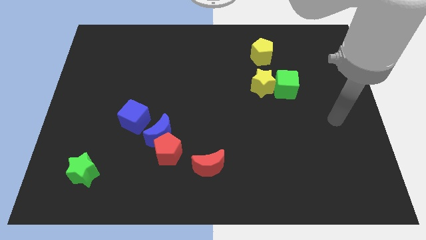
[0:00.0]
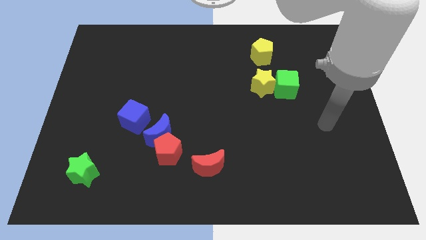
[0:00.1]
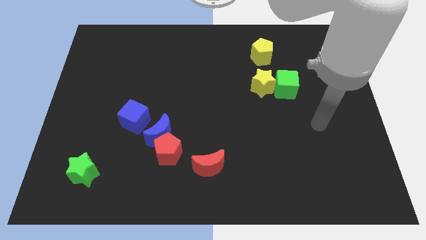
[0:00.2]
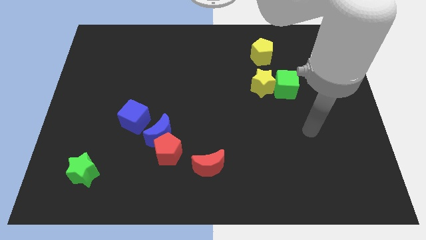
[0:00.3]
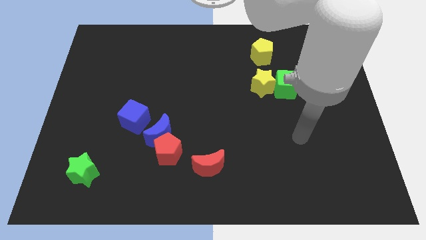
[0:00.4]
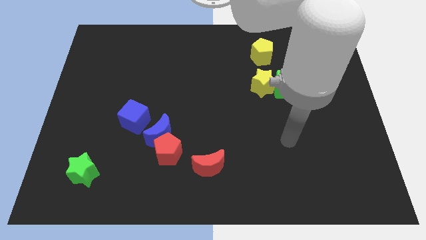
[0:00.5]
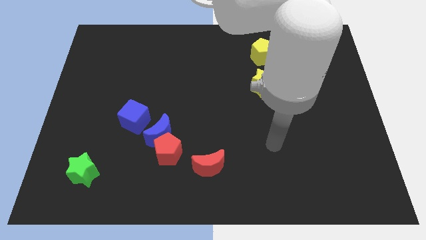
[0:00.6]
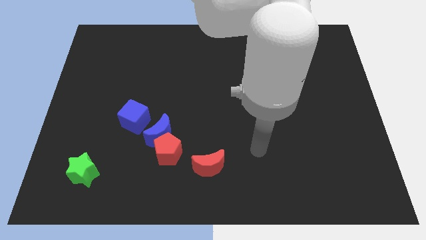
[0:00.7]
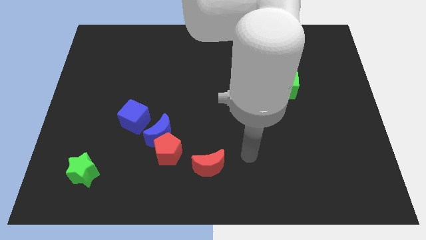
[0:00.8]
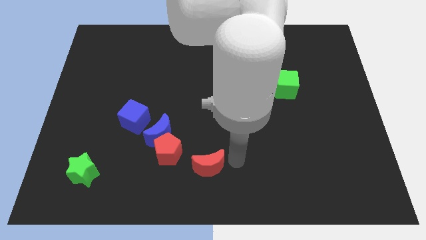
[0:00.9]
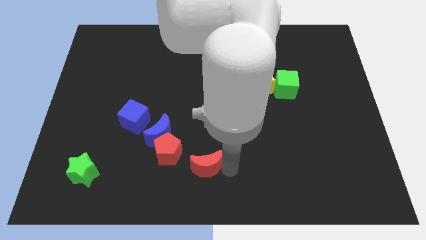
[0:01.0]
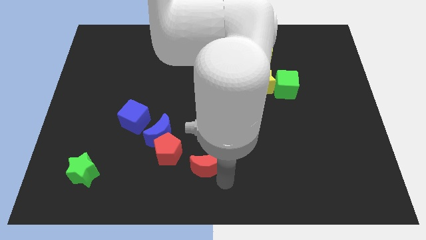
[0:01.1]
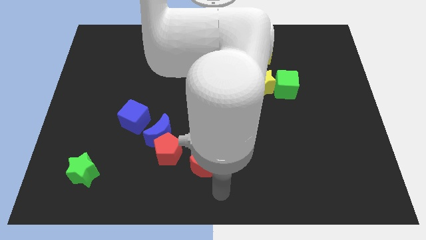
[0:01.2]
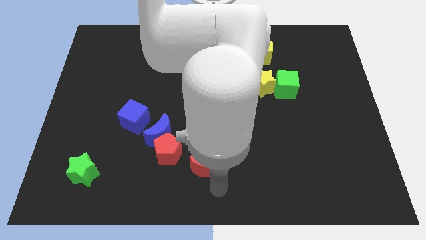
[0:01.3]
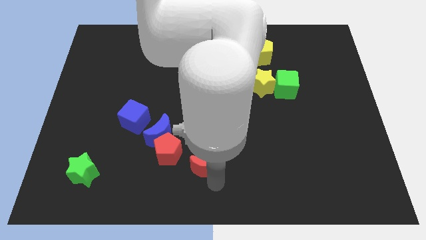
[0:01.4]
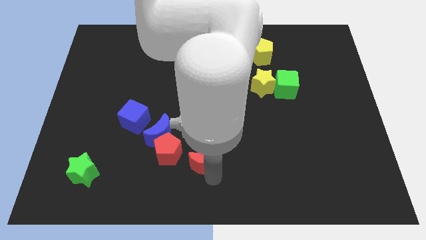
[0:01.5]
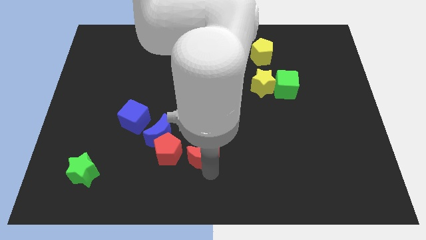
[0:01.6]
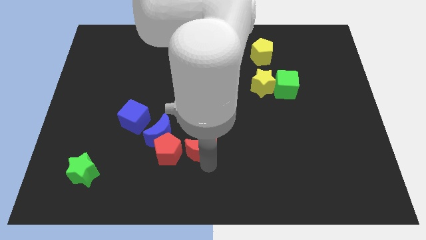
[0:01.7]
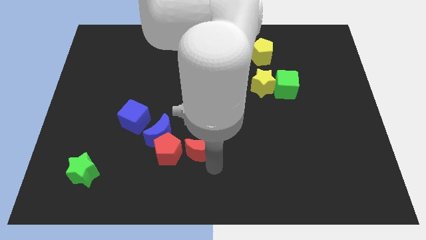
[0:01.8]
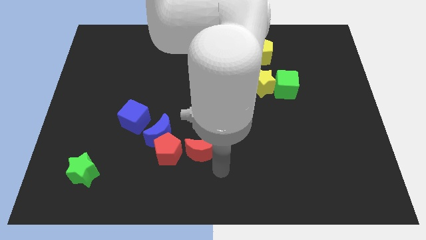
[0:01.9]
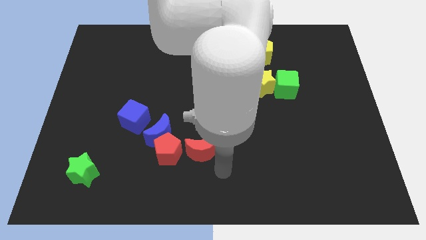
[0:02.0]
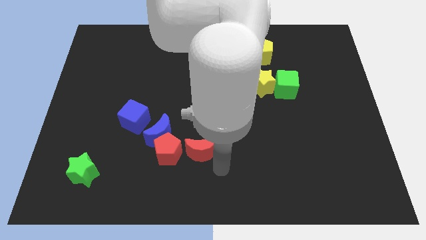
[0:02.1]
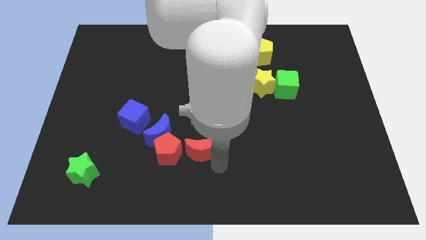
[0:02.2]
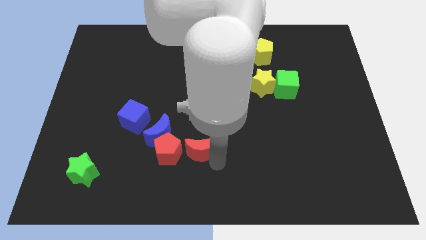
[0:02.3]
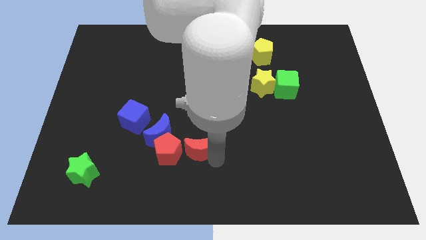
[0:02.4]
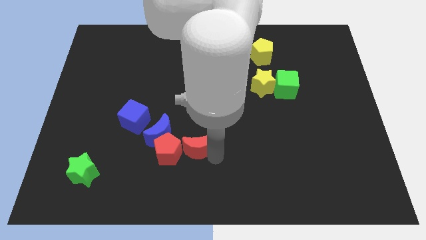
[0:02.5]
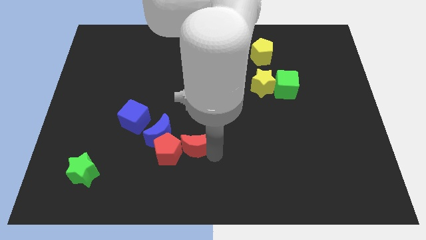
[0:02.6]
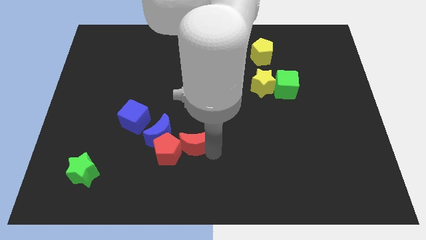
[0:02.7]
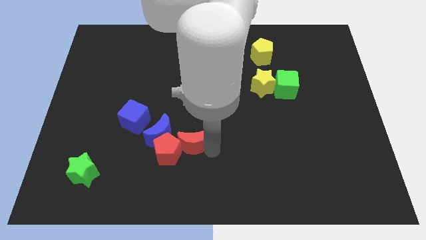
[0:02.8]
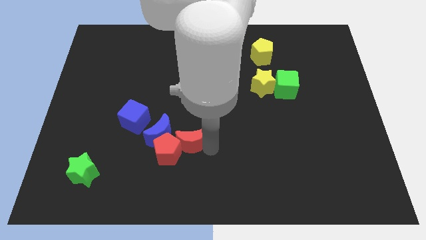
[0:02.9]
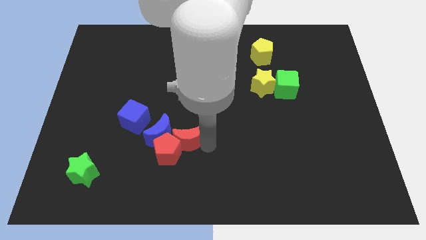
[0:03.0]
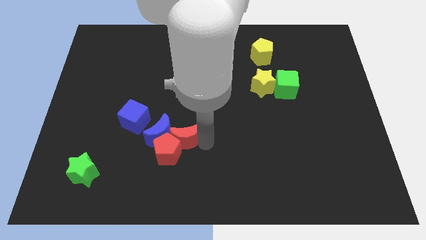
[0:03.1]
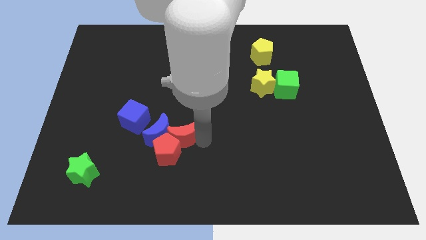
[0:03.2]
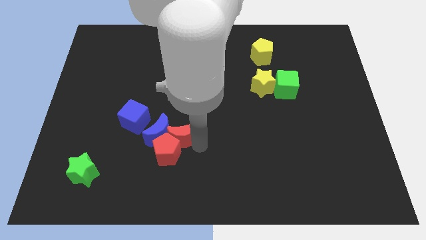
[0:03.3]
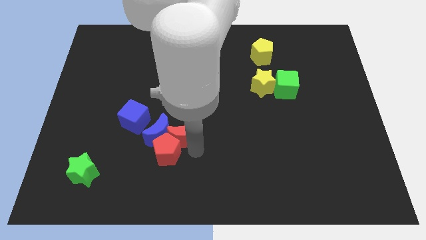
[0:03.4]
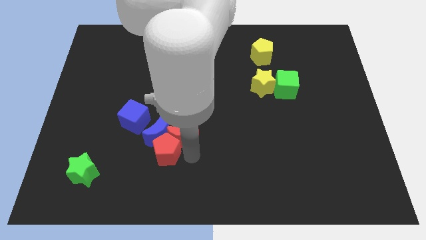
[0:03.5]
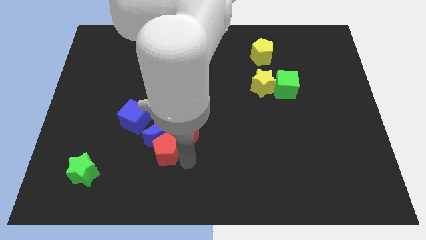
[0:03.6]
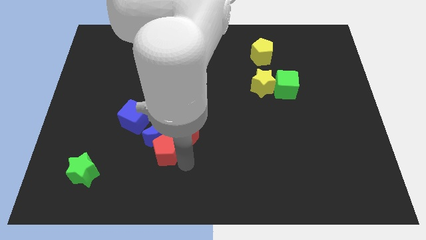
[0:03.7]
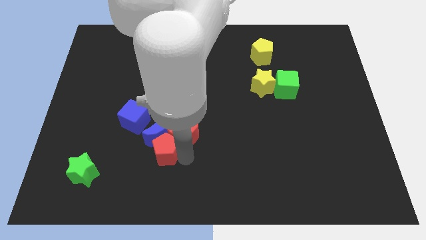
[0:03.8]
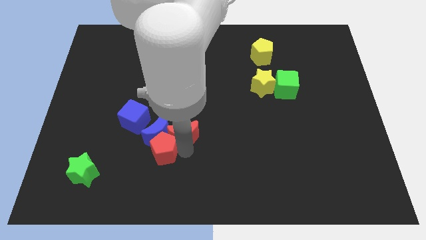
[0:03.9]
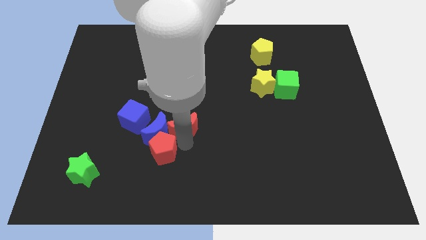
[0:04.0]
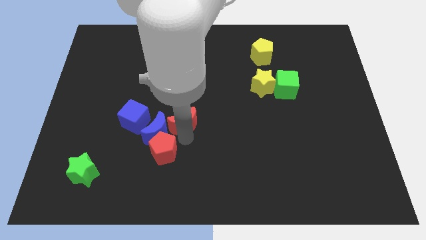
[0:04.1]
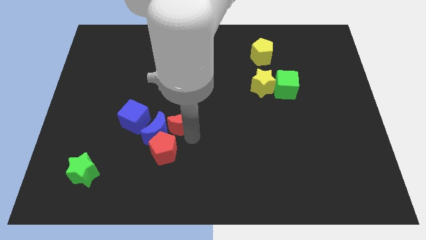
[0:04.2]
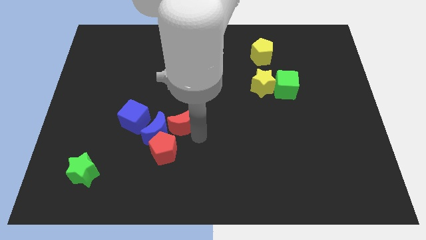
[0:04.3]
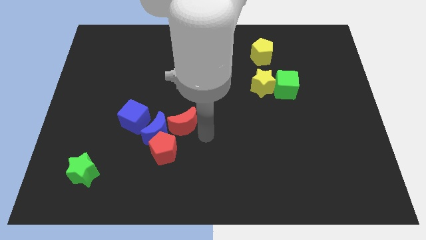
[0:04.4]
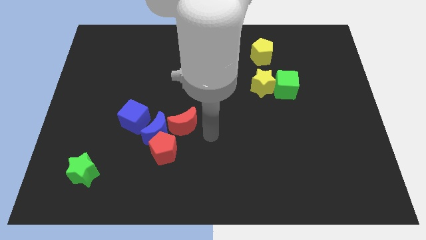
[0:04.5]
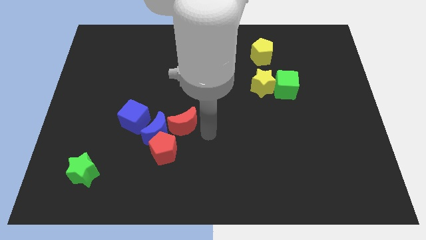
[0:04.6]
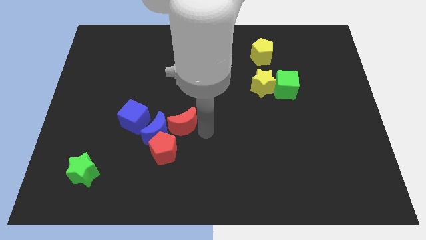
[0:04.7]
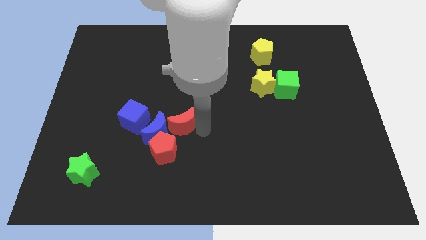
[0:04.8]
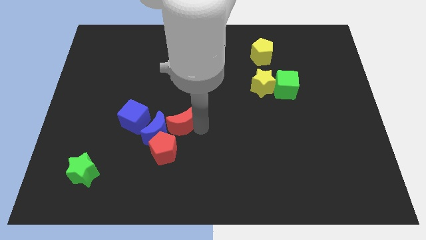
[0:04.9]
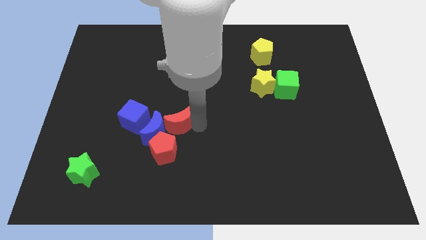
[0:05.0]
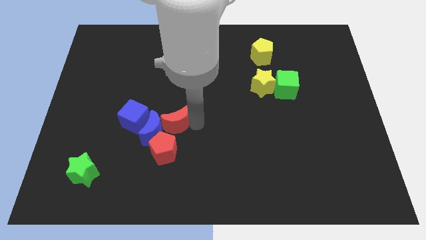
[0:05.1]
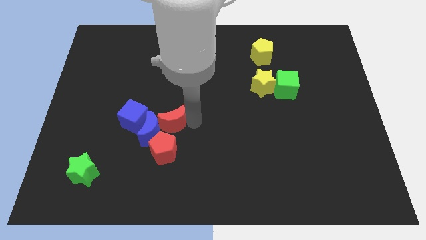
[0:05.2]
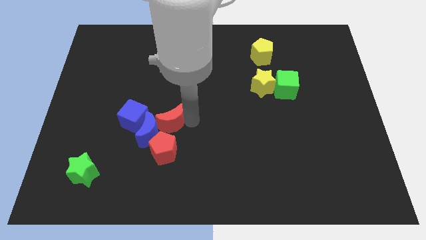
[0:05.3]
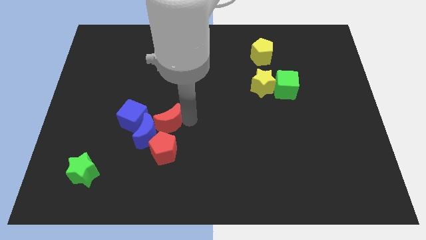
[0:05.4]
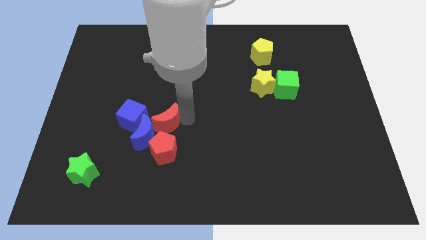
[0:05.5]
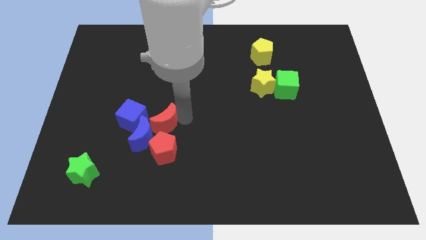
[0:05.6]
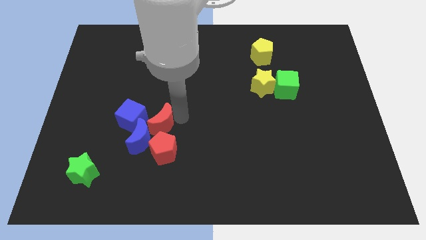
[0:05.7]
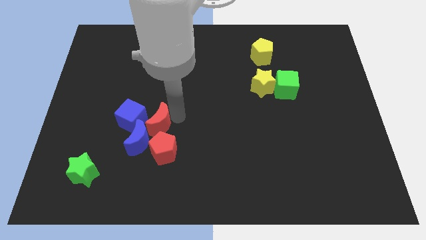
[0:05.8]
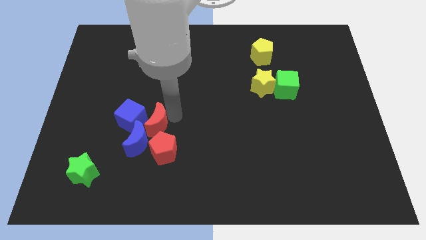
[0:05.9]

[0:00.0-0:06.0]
put the red moon to the blue cube

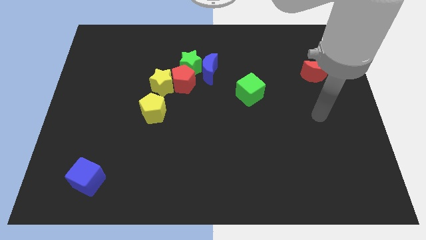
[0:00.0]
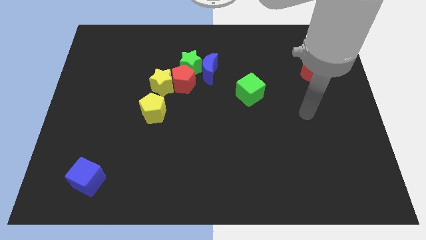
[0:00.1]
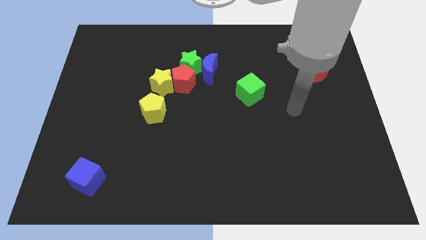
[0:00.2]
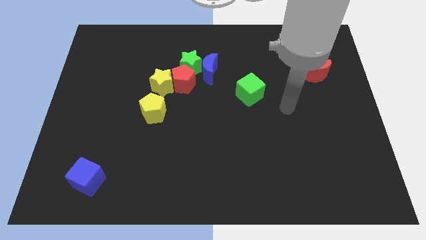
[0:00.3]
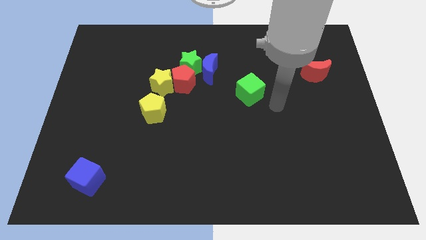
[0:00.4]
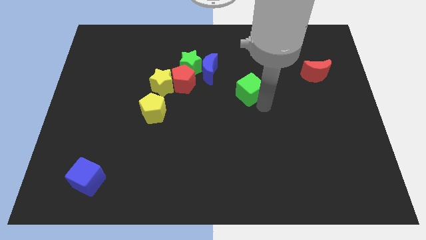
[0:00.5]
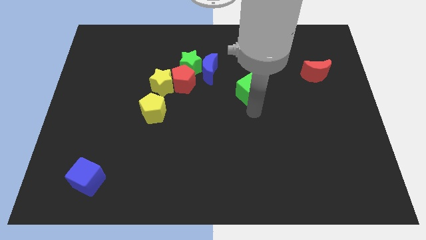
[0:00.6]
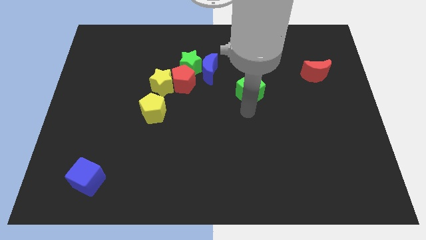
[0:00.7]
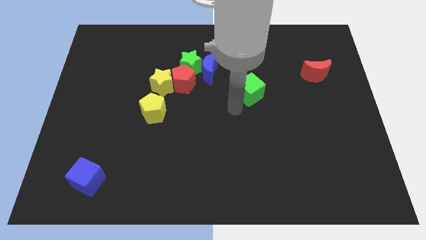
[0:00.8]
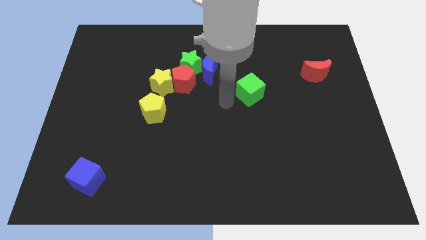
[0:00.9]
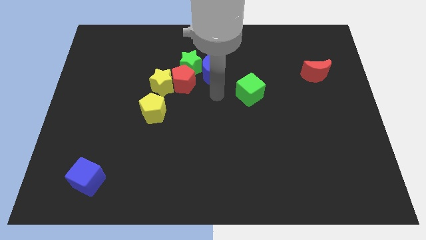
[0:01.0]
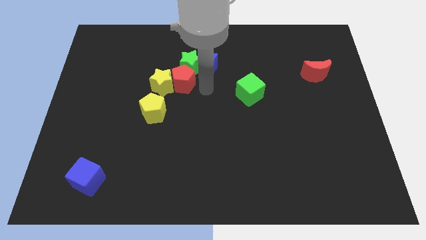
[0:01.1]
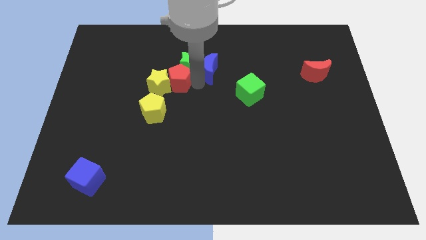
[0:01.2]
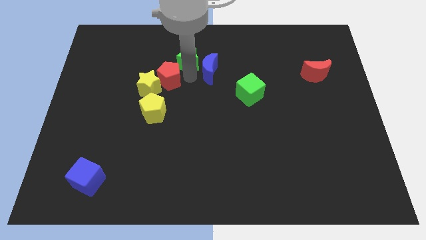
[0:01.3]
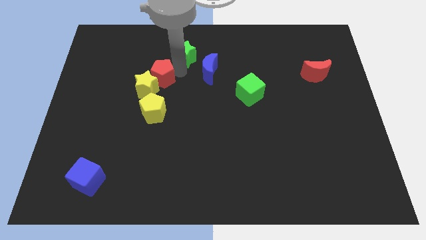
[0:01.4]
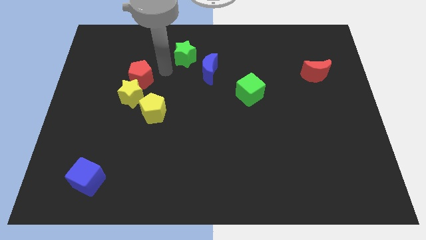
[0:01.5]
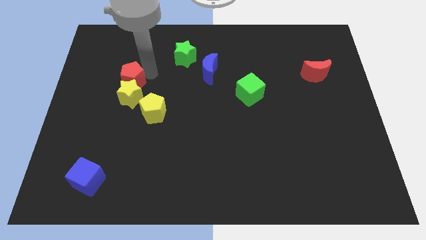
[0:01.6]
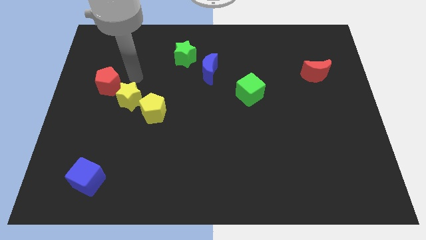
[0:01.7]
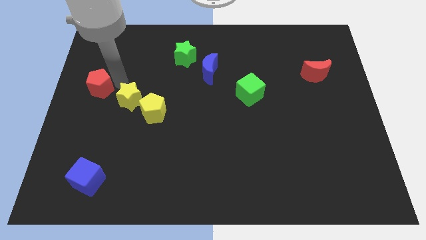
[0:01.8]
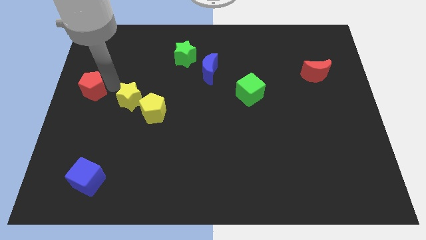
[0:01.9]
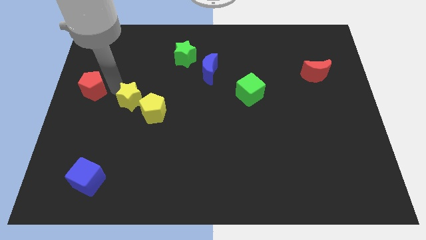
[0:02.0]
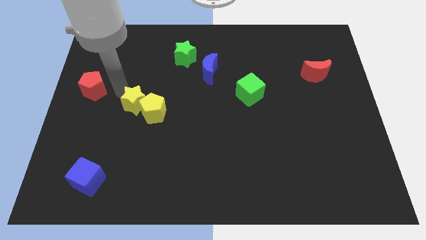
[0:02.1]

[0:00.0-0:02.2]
put the yellow star close to the yellow pentagon
